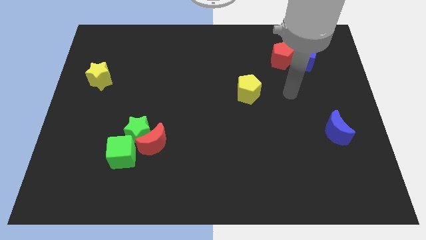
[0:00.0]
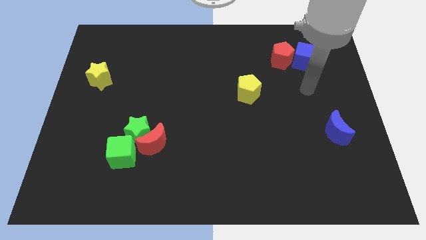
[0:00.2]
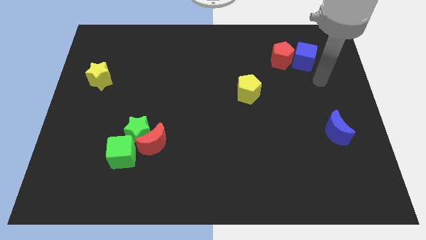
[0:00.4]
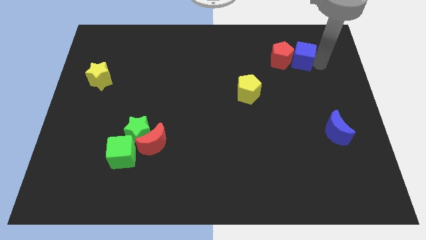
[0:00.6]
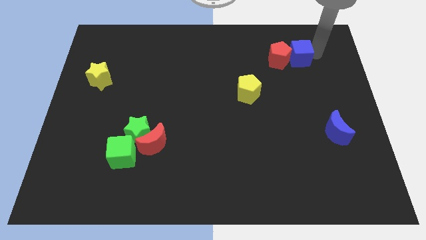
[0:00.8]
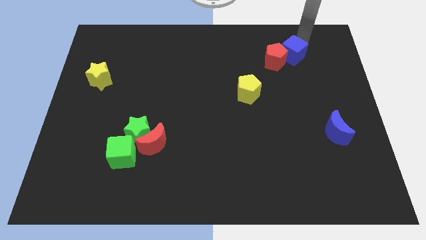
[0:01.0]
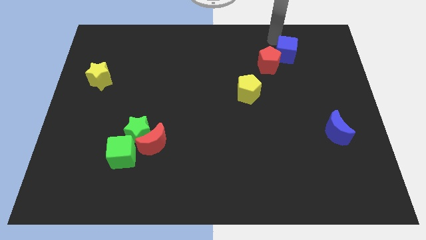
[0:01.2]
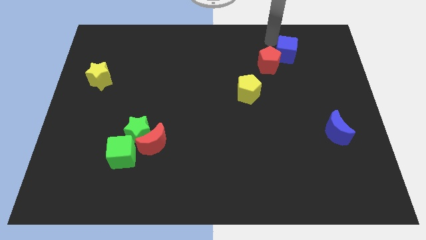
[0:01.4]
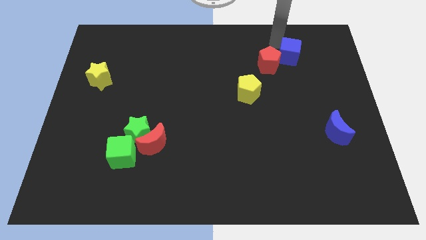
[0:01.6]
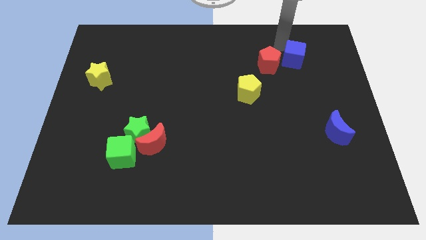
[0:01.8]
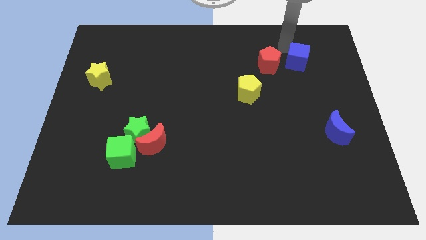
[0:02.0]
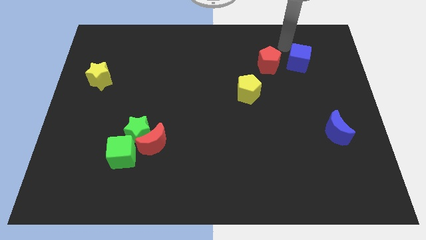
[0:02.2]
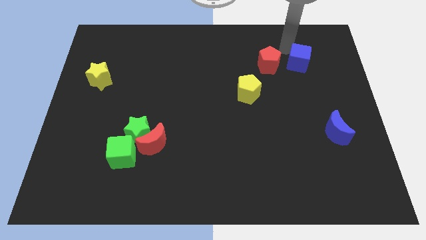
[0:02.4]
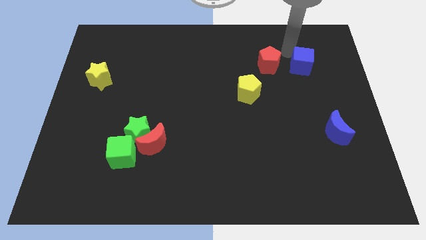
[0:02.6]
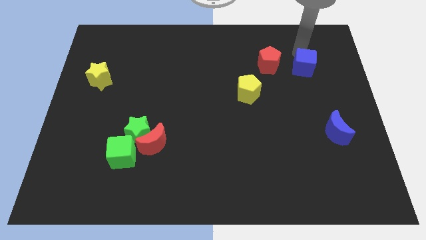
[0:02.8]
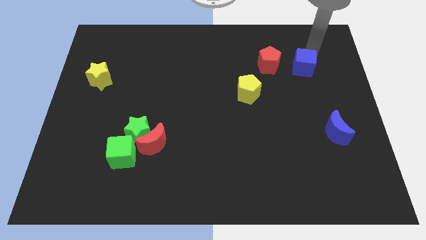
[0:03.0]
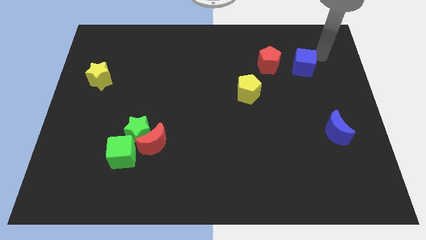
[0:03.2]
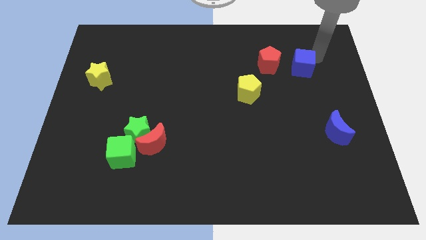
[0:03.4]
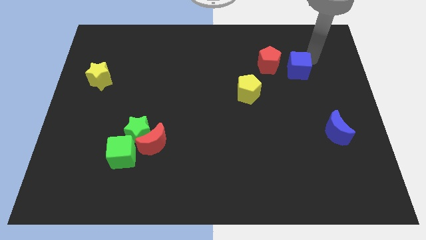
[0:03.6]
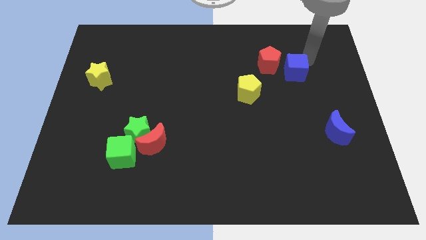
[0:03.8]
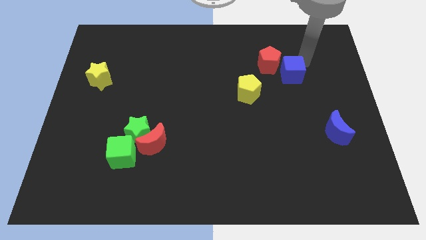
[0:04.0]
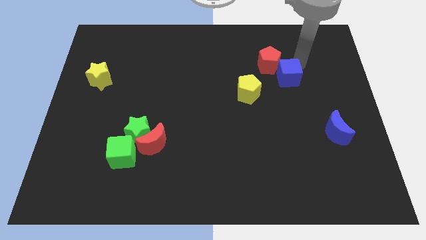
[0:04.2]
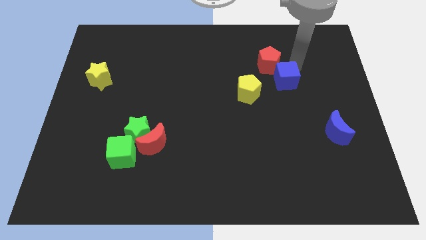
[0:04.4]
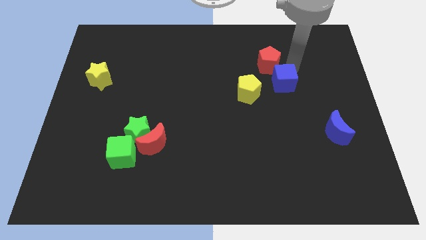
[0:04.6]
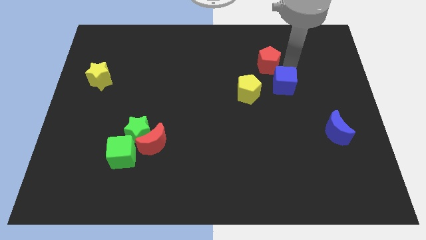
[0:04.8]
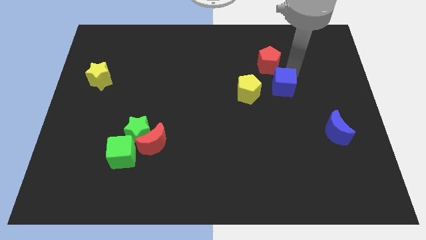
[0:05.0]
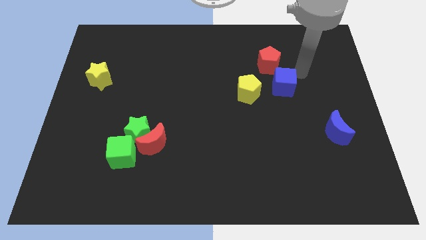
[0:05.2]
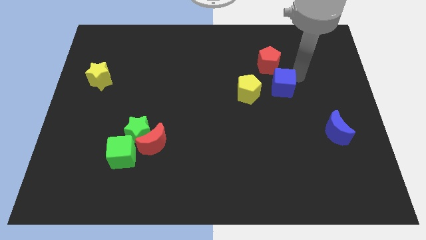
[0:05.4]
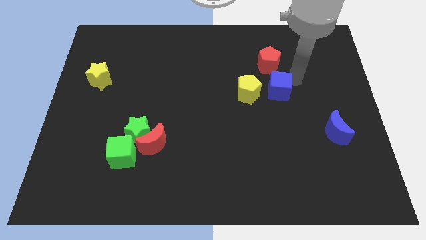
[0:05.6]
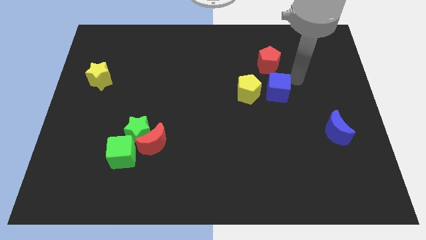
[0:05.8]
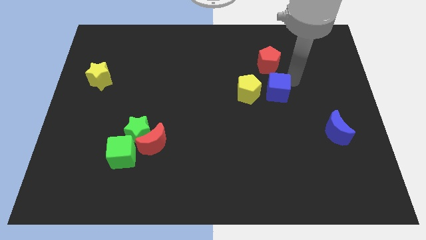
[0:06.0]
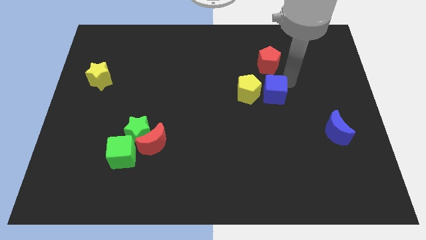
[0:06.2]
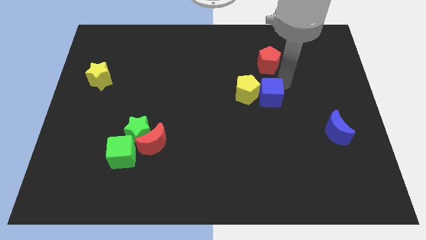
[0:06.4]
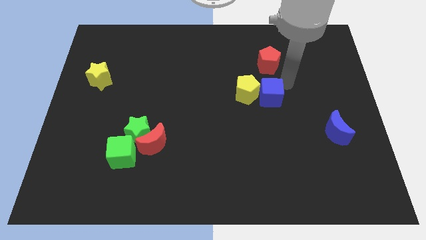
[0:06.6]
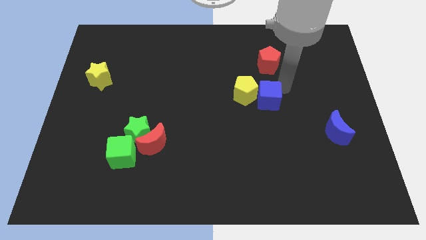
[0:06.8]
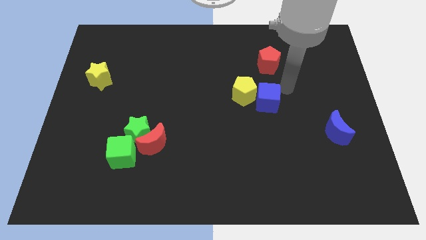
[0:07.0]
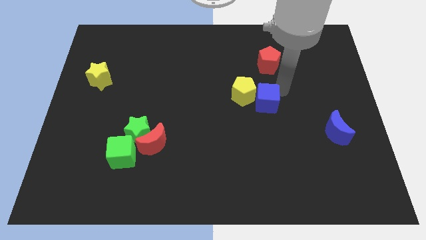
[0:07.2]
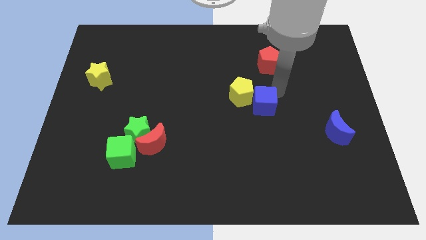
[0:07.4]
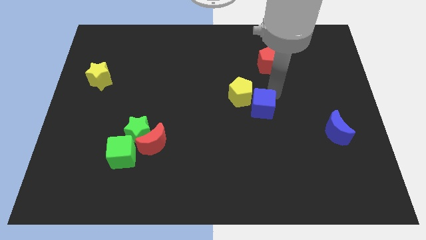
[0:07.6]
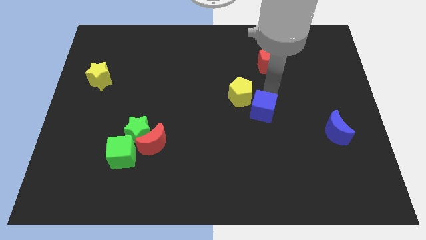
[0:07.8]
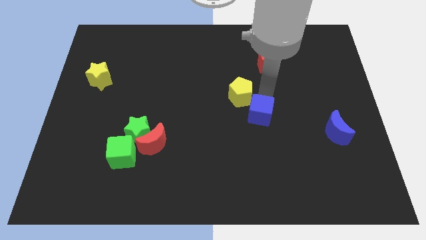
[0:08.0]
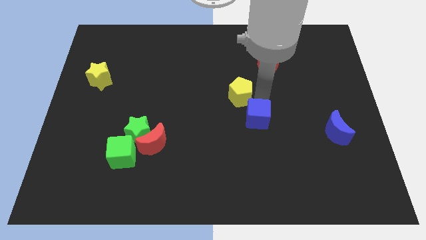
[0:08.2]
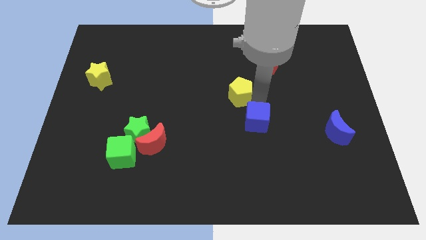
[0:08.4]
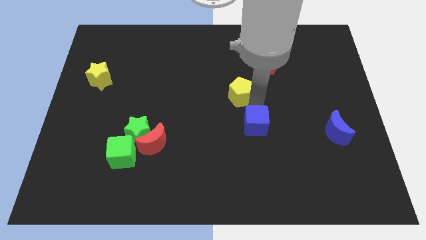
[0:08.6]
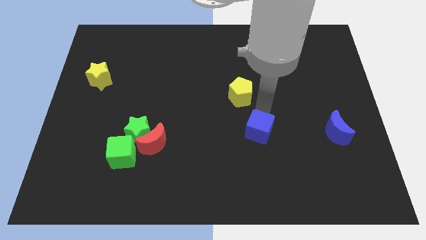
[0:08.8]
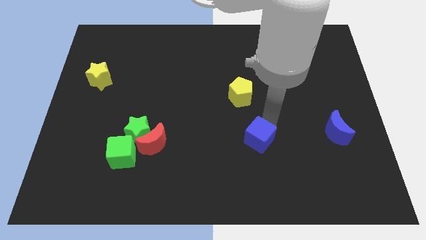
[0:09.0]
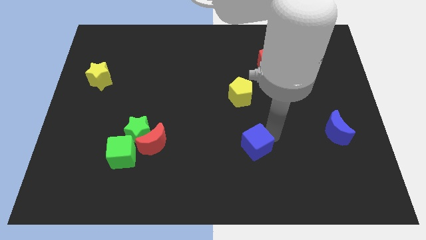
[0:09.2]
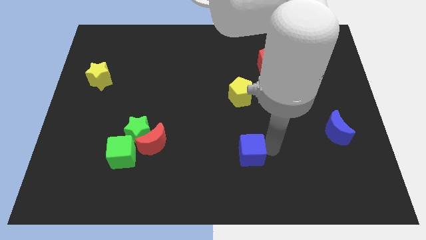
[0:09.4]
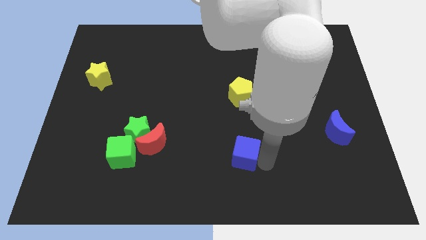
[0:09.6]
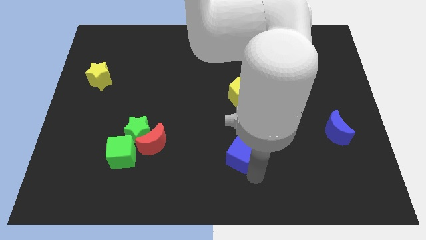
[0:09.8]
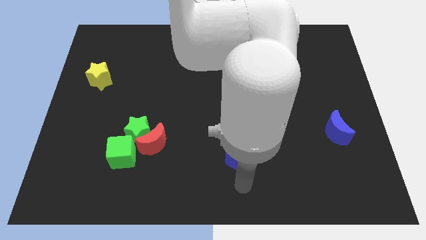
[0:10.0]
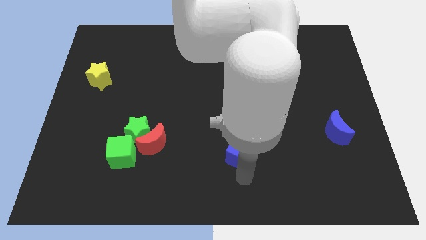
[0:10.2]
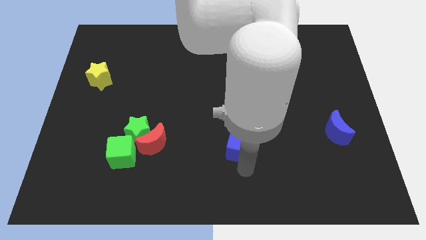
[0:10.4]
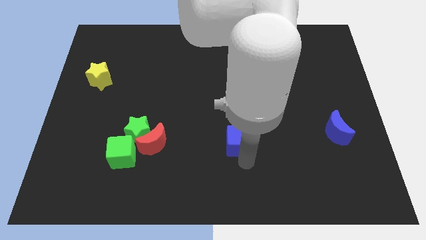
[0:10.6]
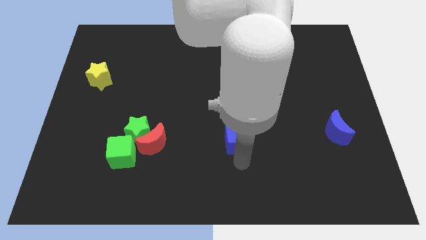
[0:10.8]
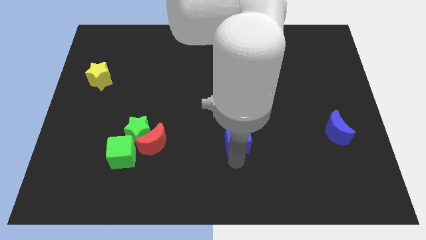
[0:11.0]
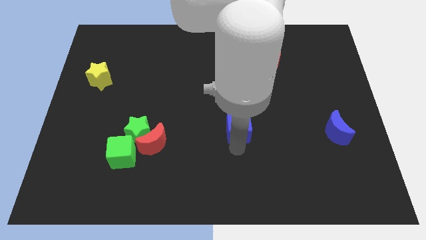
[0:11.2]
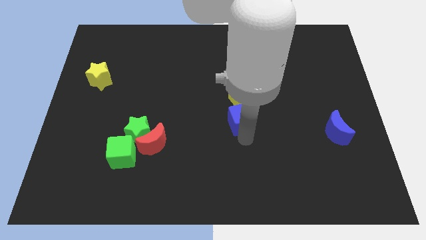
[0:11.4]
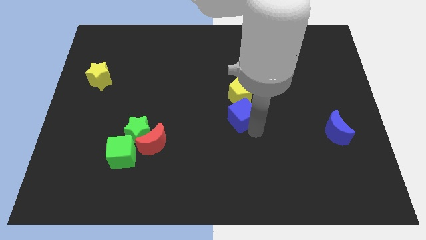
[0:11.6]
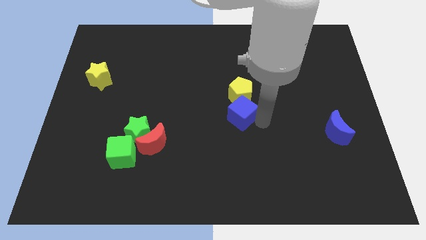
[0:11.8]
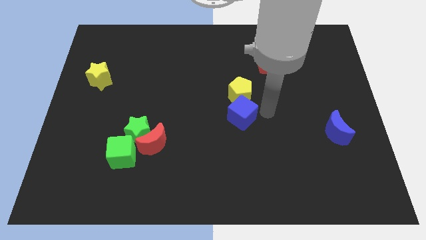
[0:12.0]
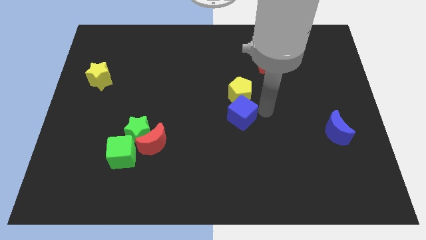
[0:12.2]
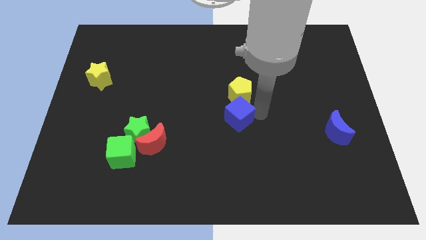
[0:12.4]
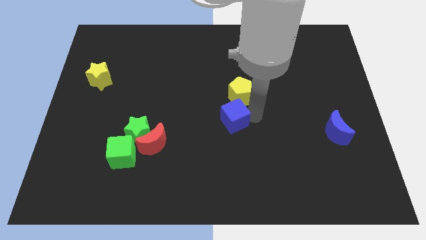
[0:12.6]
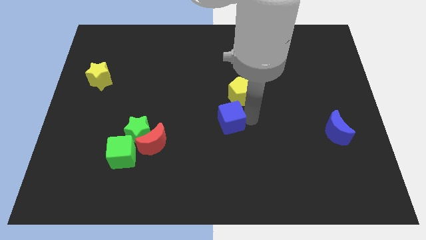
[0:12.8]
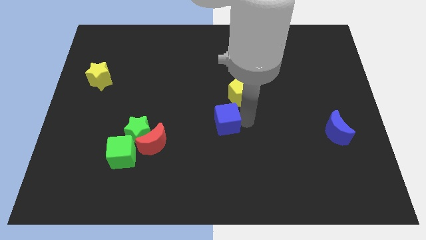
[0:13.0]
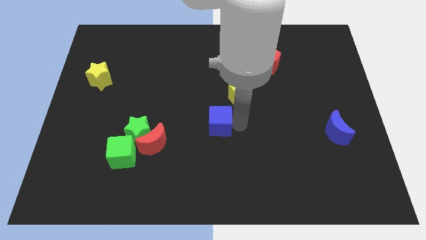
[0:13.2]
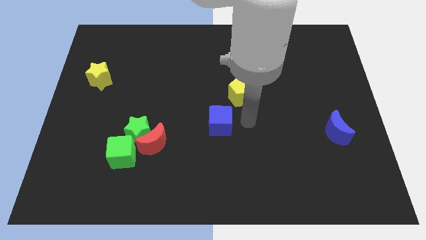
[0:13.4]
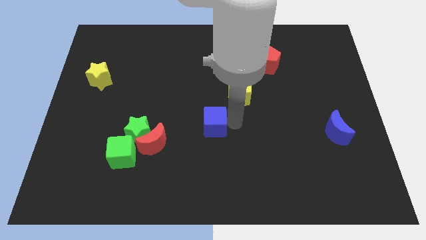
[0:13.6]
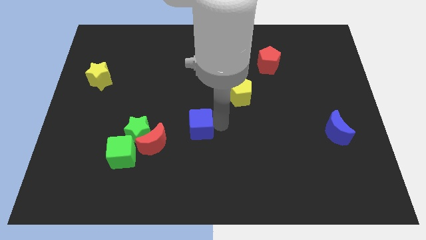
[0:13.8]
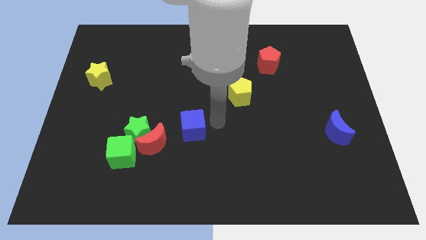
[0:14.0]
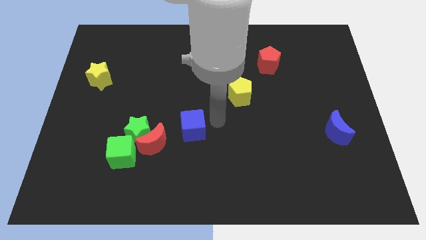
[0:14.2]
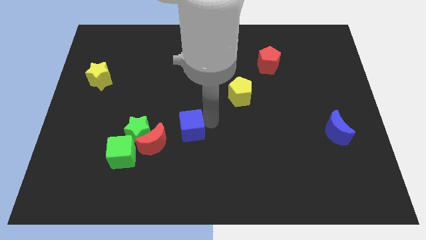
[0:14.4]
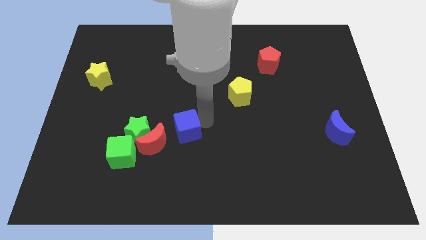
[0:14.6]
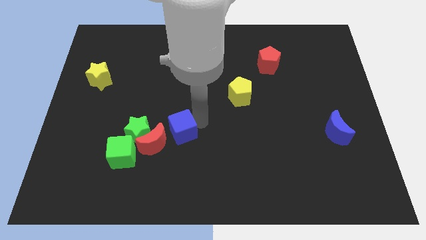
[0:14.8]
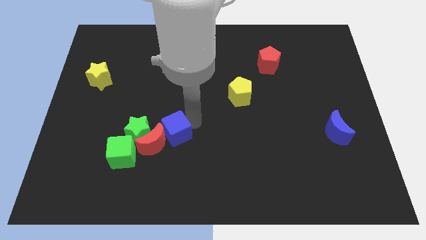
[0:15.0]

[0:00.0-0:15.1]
put the blue cube next to the red moon
